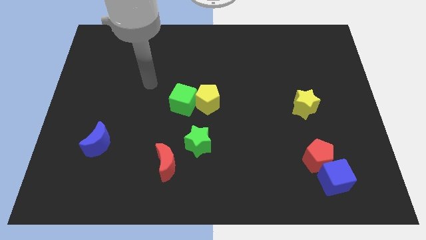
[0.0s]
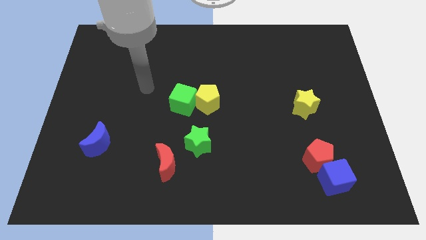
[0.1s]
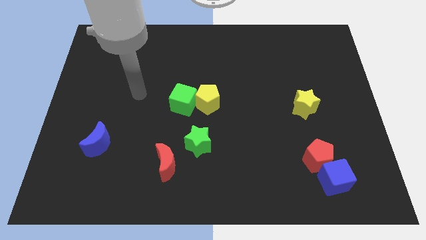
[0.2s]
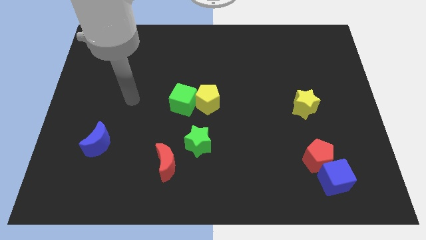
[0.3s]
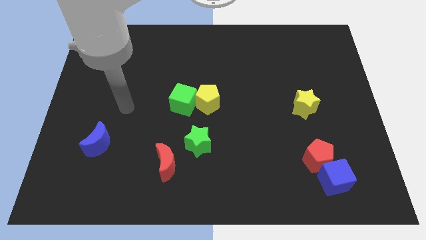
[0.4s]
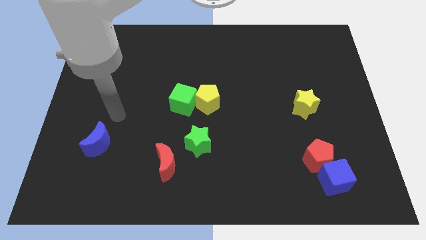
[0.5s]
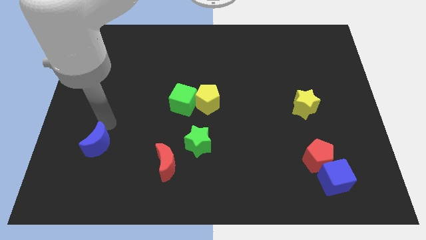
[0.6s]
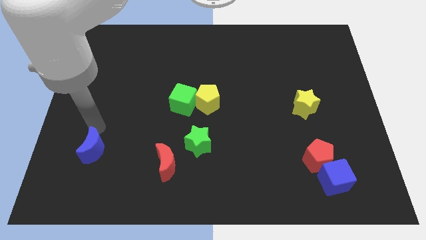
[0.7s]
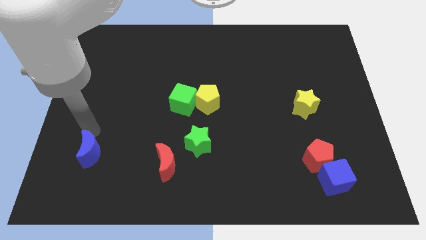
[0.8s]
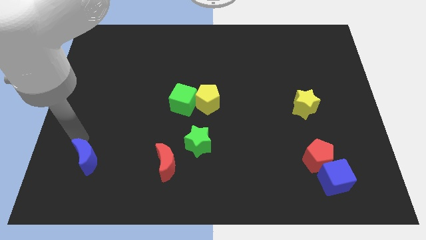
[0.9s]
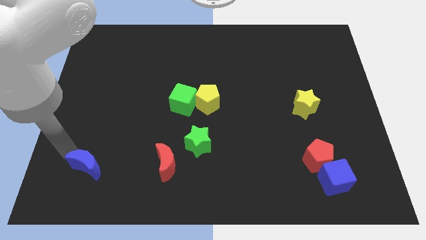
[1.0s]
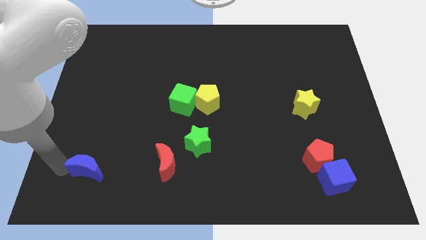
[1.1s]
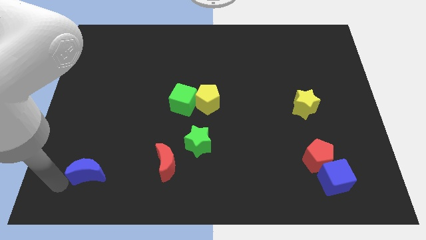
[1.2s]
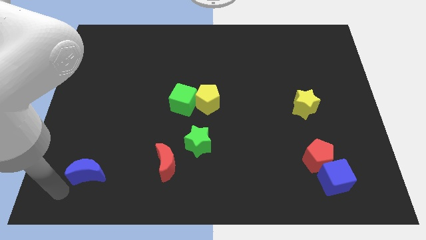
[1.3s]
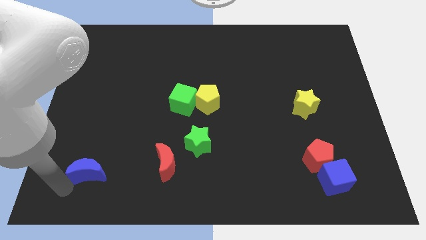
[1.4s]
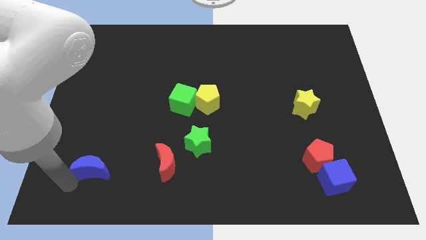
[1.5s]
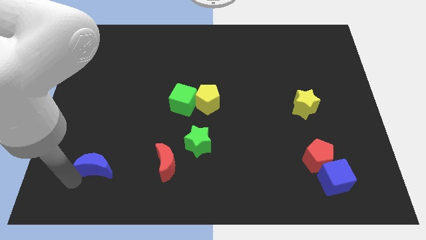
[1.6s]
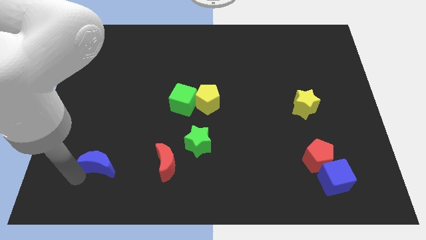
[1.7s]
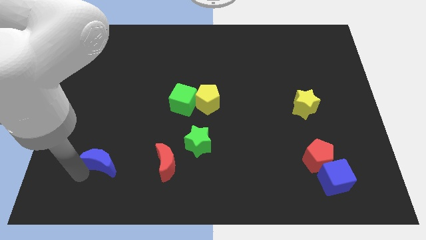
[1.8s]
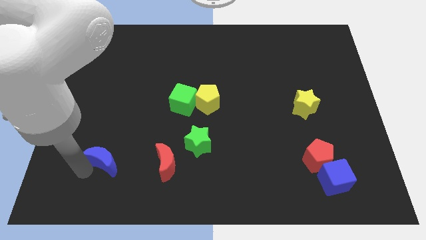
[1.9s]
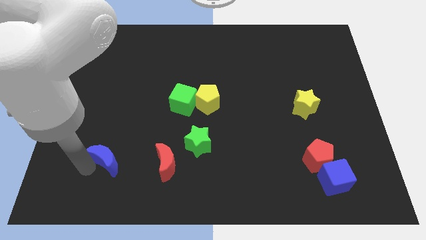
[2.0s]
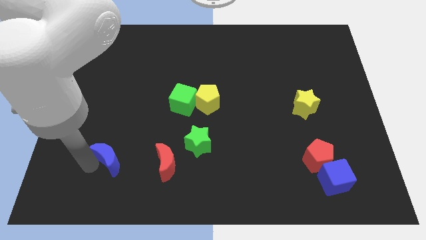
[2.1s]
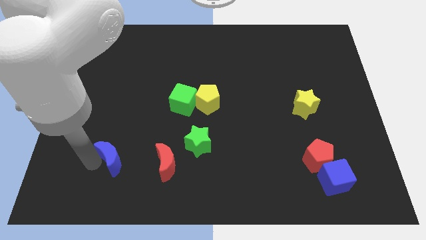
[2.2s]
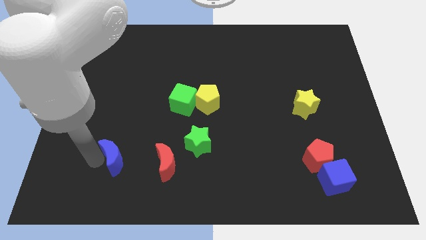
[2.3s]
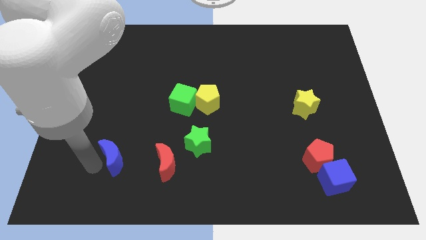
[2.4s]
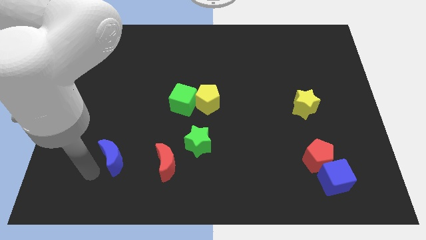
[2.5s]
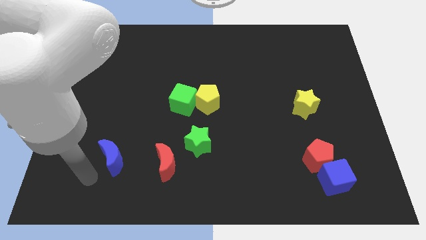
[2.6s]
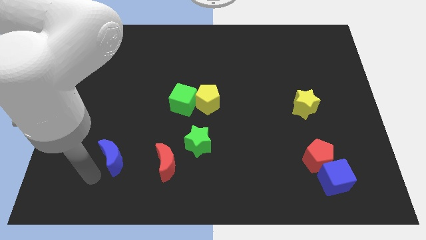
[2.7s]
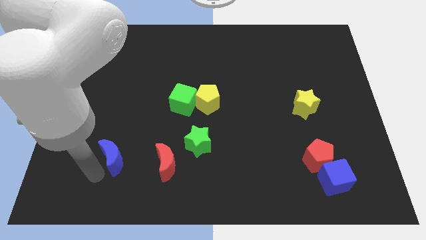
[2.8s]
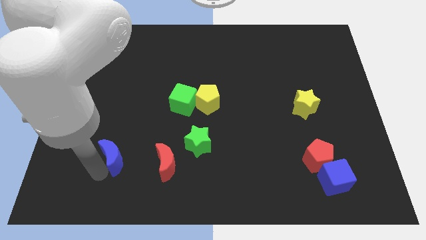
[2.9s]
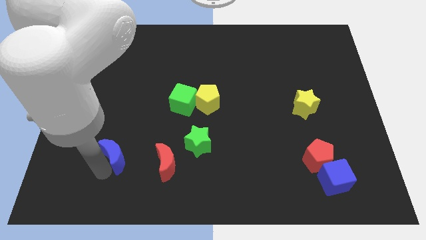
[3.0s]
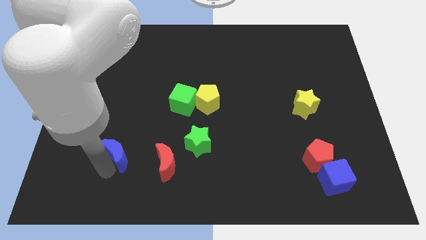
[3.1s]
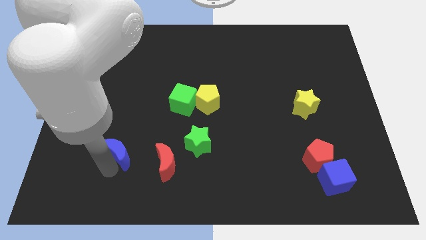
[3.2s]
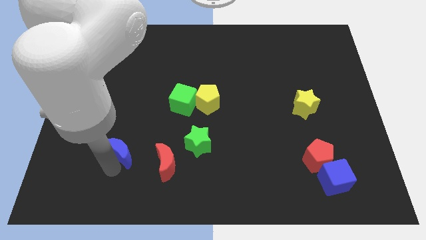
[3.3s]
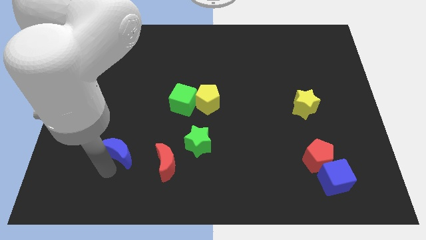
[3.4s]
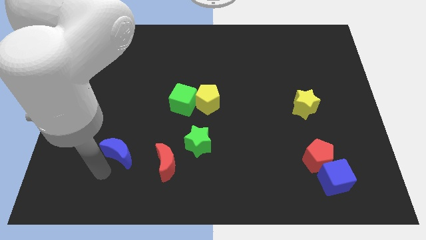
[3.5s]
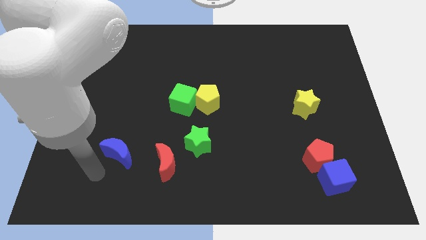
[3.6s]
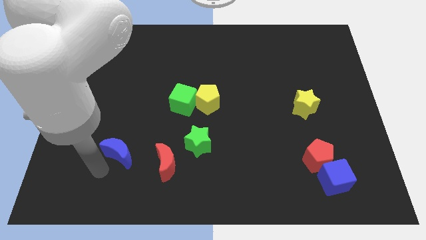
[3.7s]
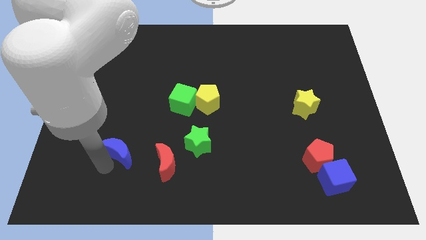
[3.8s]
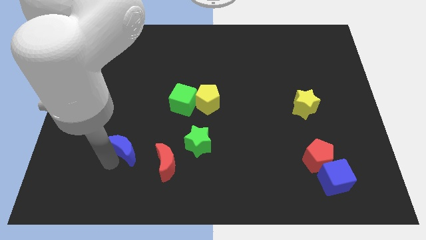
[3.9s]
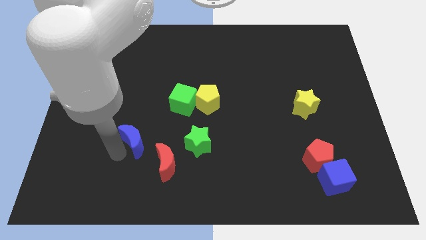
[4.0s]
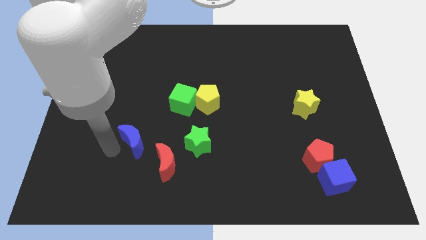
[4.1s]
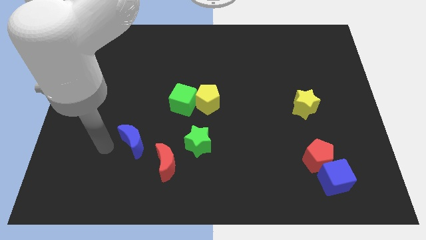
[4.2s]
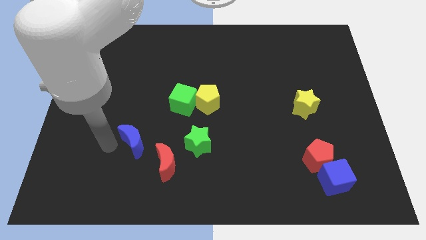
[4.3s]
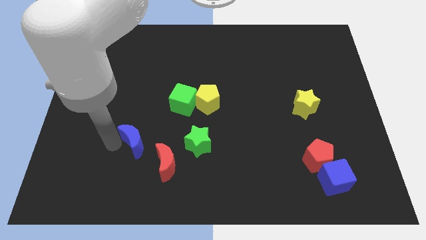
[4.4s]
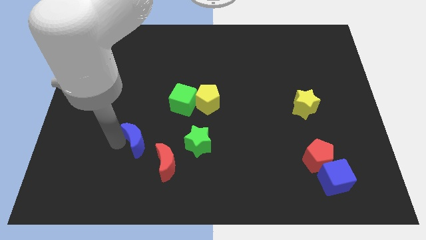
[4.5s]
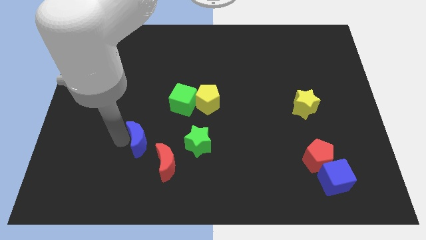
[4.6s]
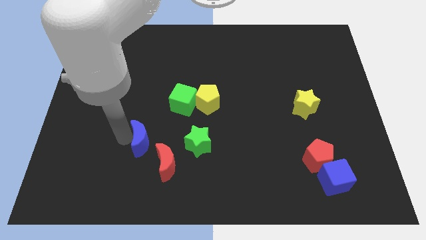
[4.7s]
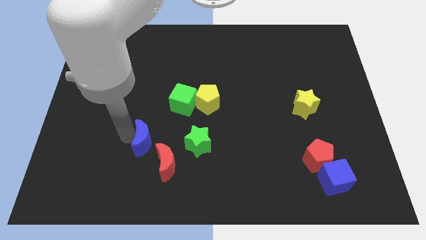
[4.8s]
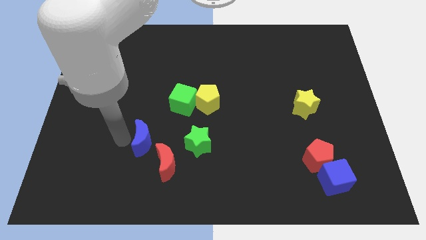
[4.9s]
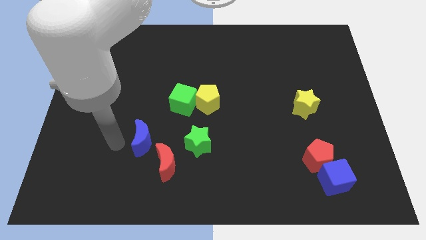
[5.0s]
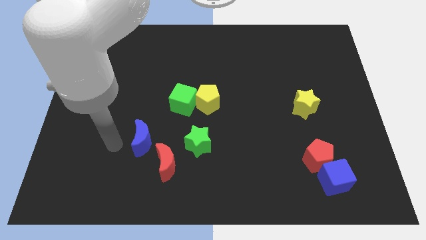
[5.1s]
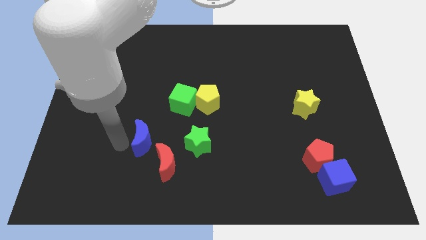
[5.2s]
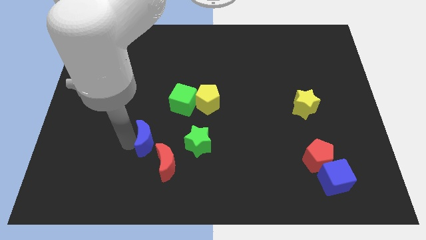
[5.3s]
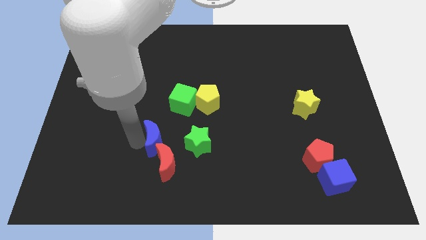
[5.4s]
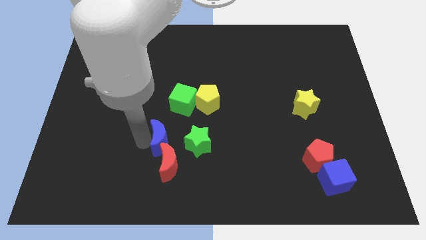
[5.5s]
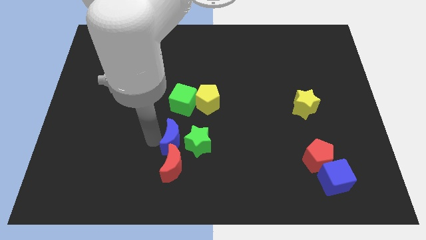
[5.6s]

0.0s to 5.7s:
push the blue moon next to the green star

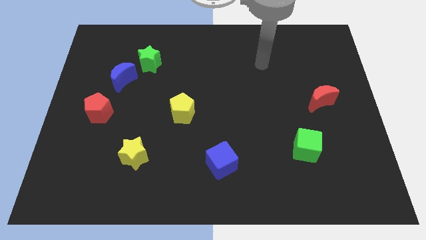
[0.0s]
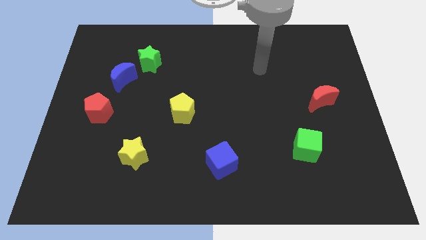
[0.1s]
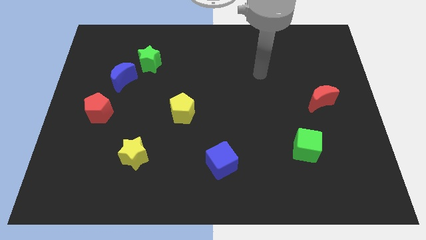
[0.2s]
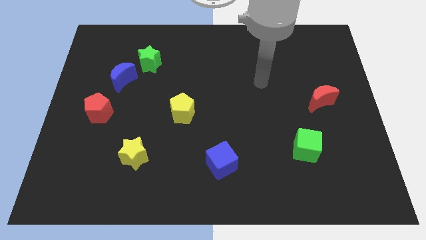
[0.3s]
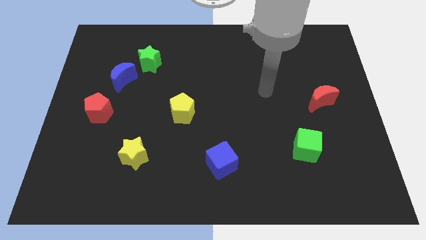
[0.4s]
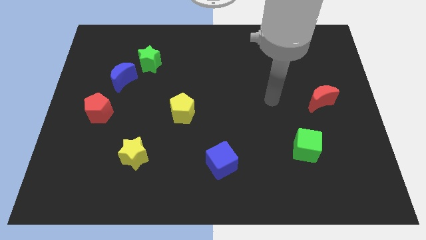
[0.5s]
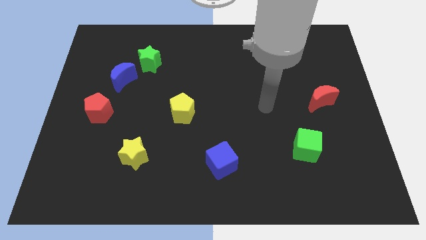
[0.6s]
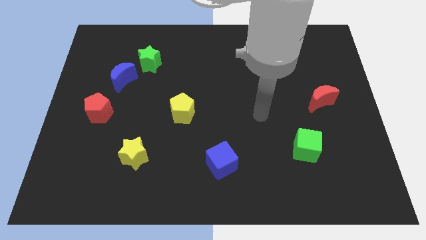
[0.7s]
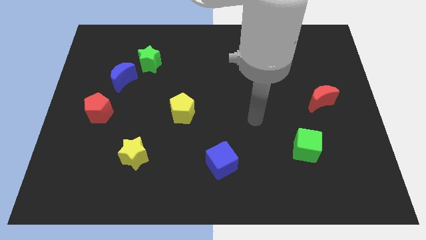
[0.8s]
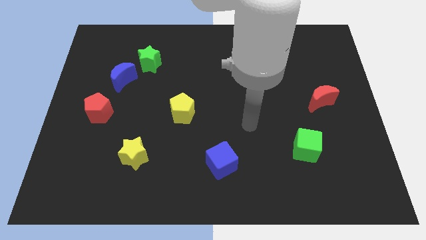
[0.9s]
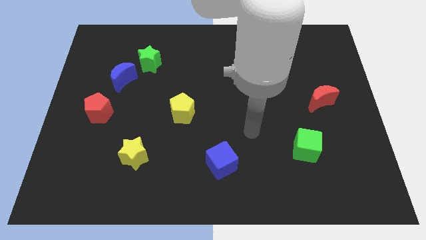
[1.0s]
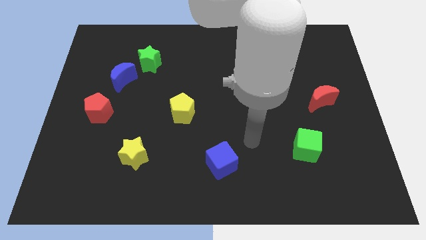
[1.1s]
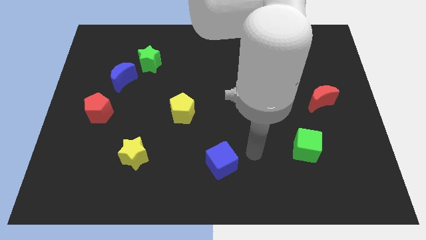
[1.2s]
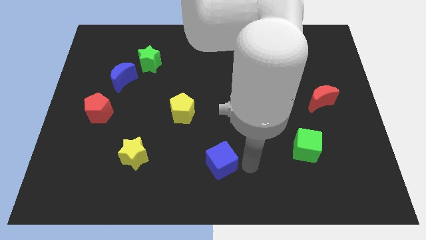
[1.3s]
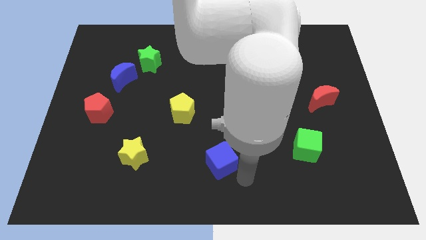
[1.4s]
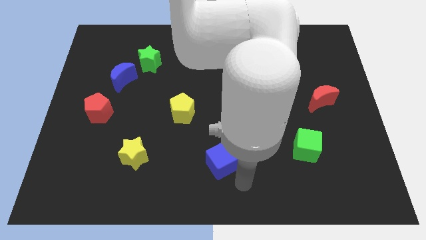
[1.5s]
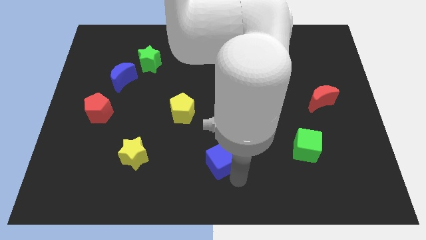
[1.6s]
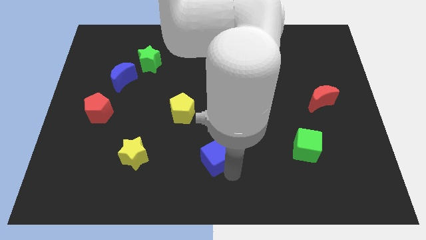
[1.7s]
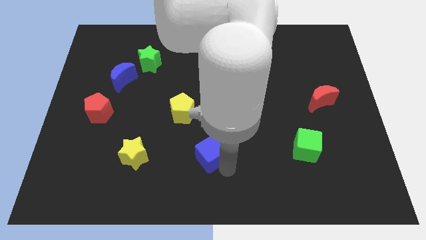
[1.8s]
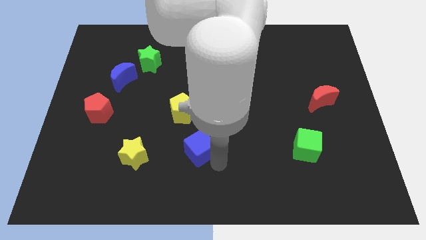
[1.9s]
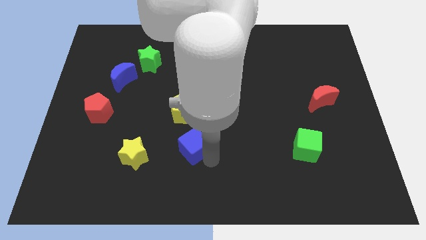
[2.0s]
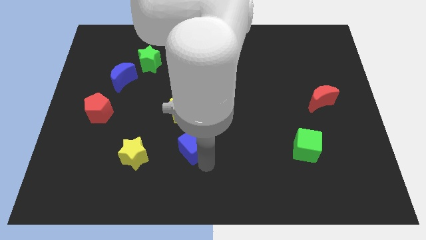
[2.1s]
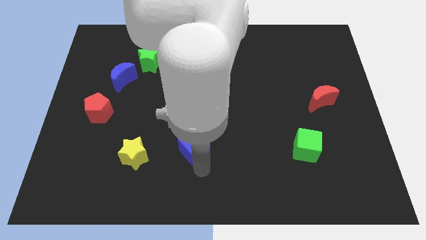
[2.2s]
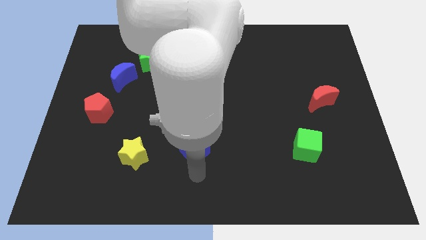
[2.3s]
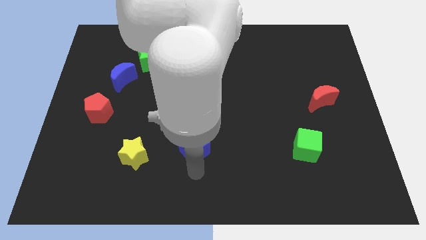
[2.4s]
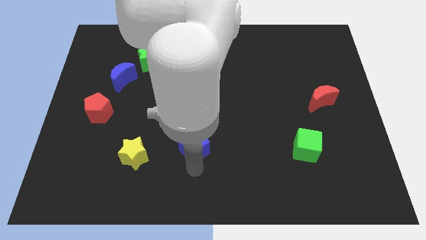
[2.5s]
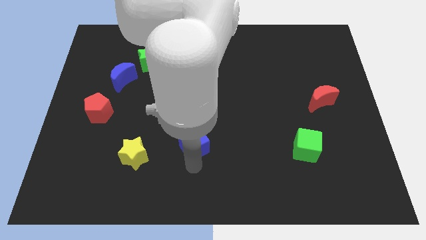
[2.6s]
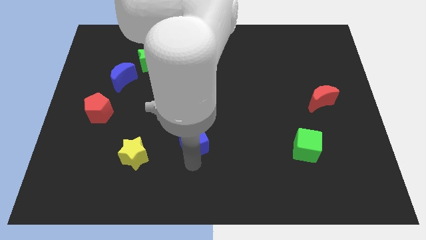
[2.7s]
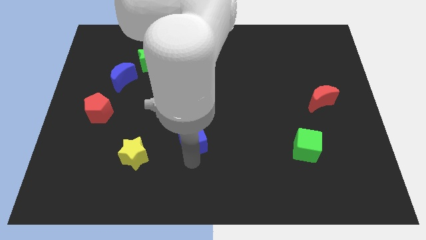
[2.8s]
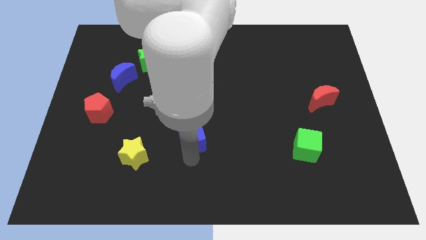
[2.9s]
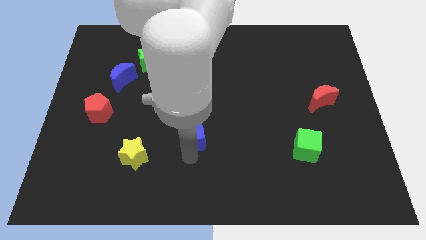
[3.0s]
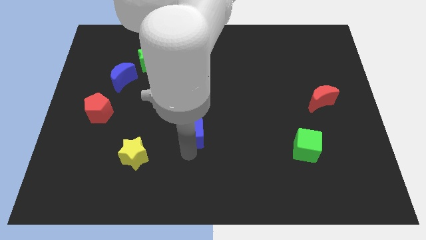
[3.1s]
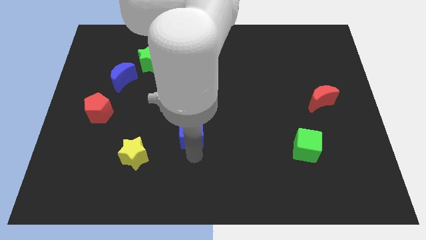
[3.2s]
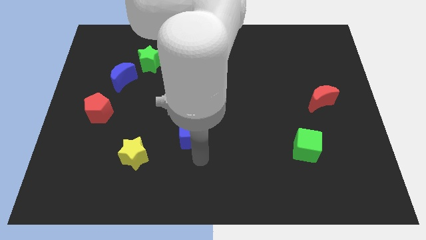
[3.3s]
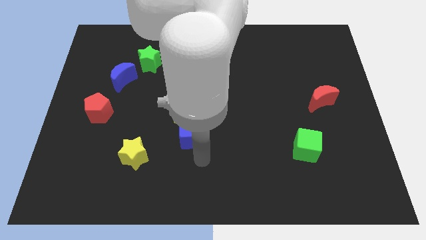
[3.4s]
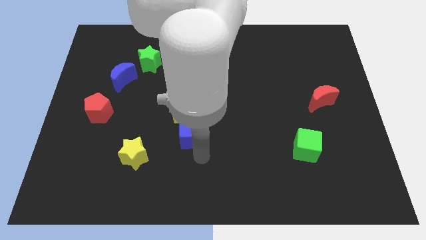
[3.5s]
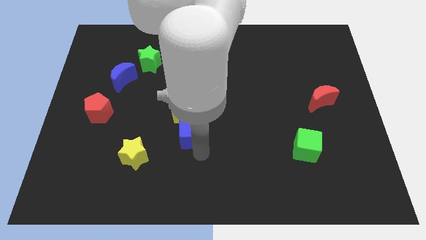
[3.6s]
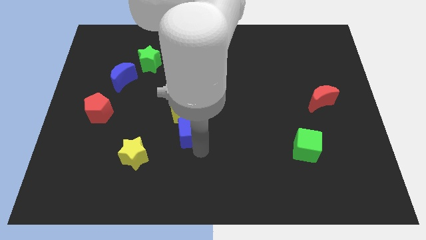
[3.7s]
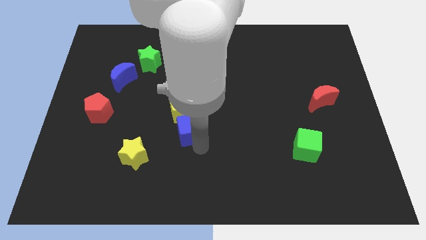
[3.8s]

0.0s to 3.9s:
move the blue cube close to the yellow pentagon
